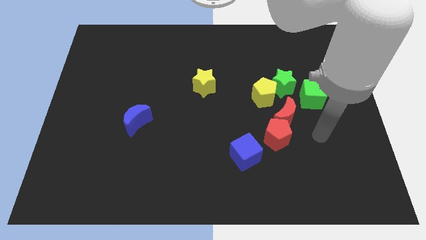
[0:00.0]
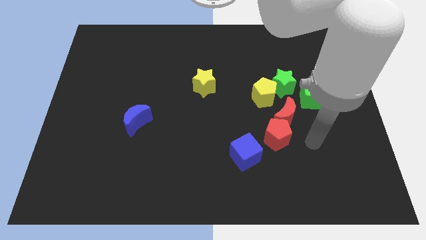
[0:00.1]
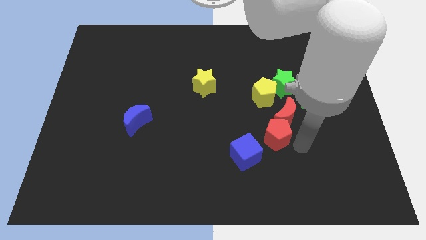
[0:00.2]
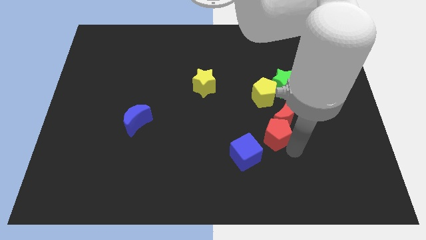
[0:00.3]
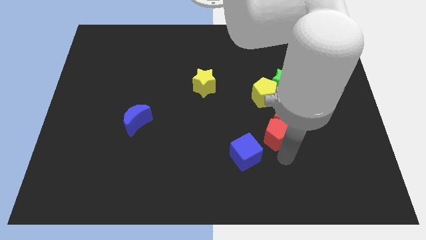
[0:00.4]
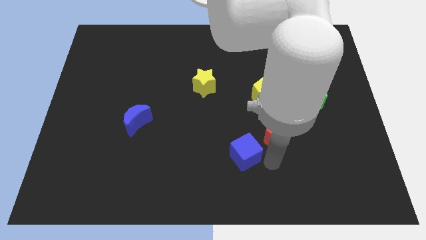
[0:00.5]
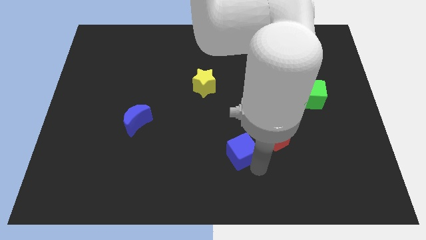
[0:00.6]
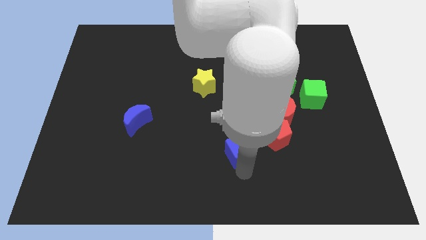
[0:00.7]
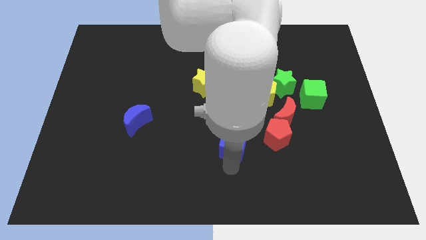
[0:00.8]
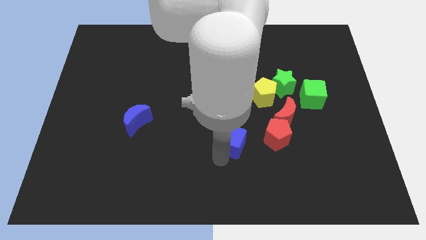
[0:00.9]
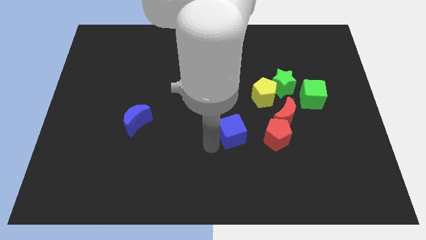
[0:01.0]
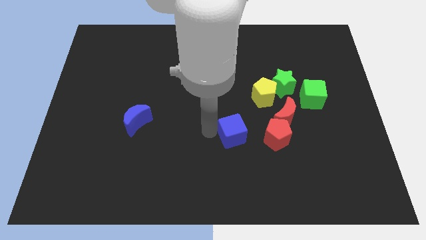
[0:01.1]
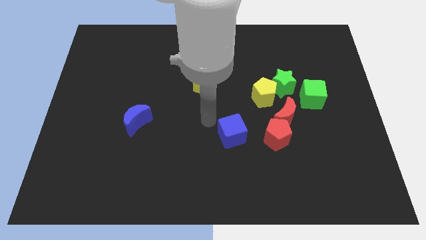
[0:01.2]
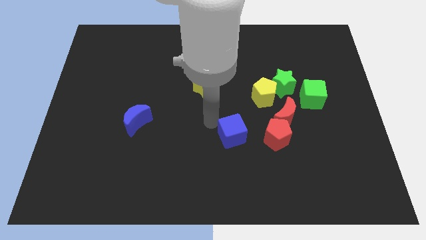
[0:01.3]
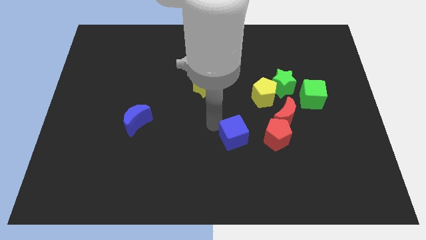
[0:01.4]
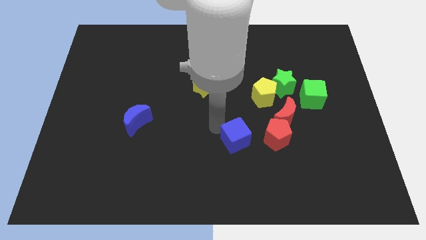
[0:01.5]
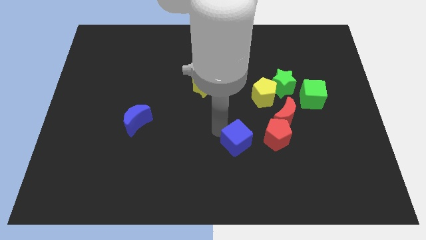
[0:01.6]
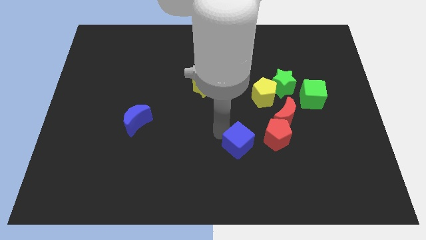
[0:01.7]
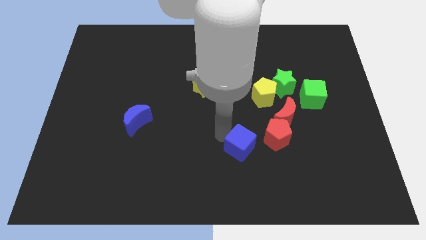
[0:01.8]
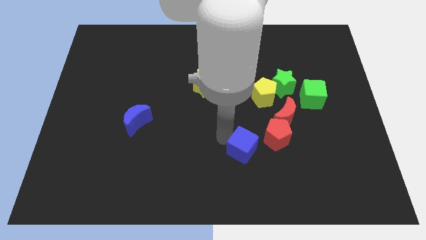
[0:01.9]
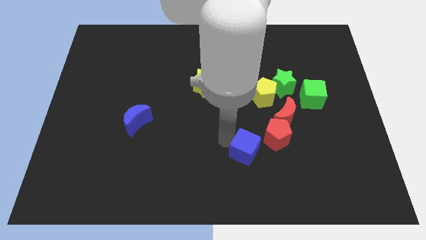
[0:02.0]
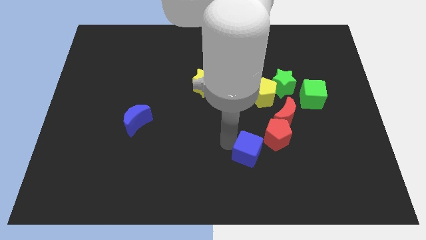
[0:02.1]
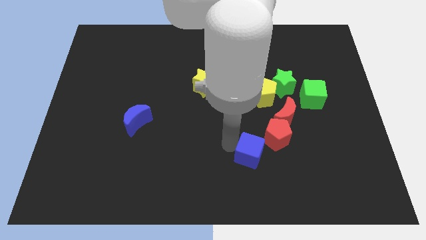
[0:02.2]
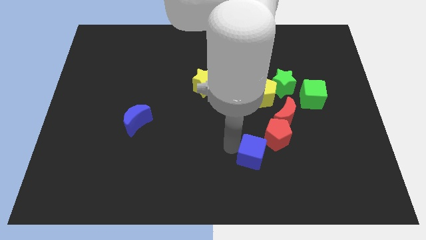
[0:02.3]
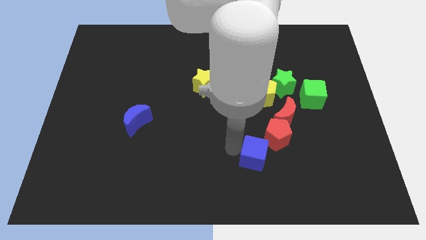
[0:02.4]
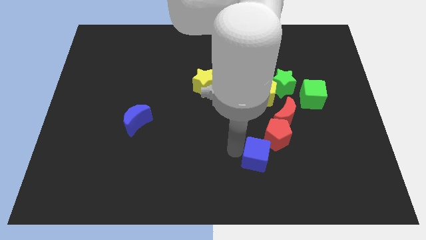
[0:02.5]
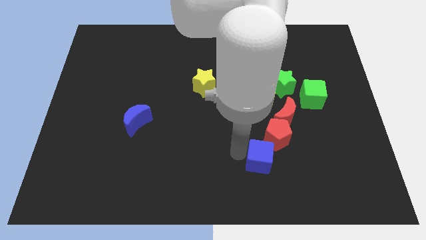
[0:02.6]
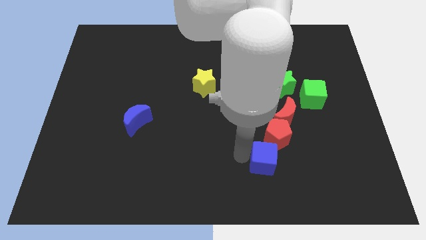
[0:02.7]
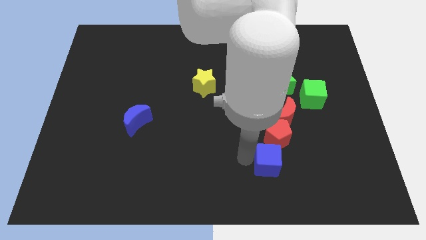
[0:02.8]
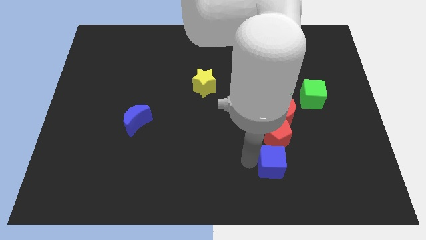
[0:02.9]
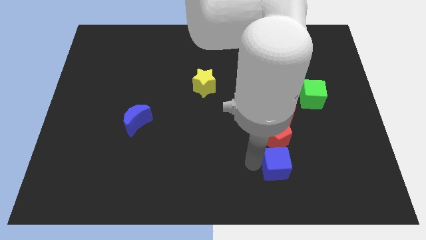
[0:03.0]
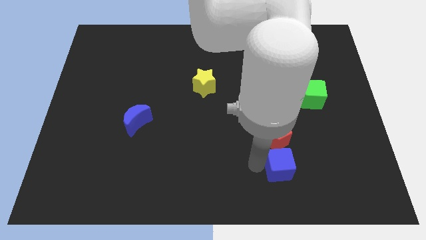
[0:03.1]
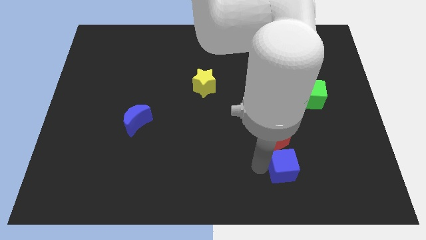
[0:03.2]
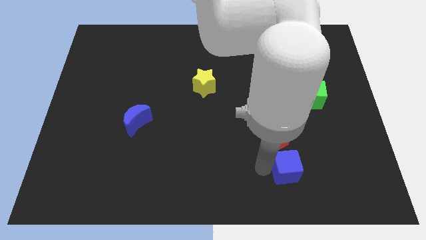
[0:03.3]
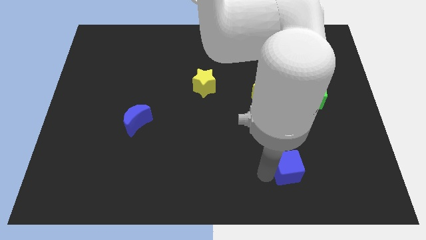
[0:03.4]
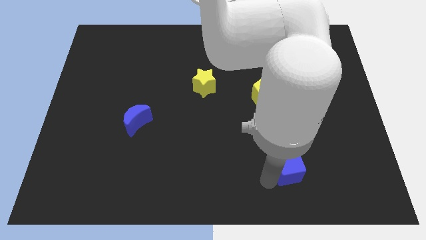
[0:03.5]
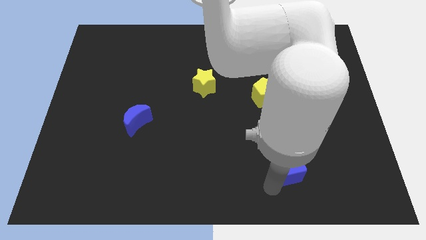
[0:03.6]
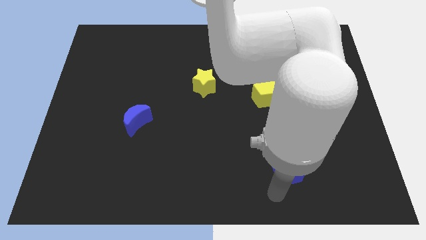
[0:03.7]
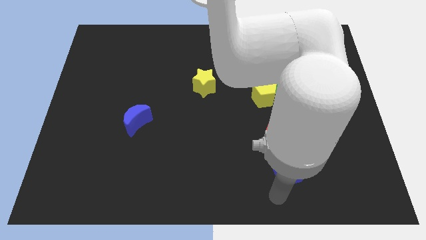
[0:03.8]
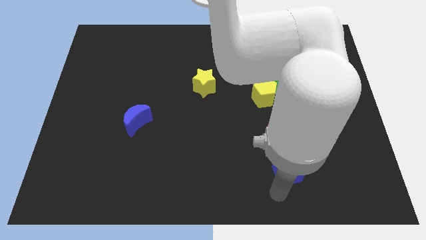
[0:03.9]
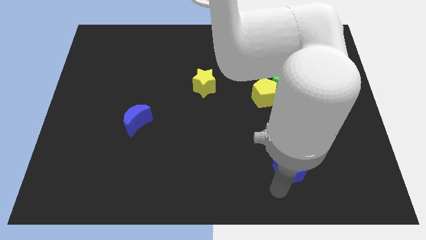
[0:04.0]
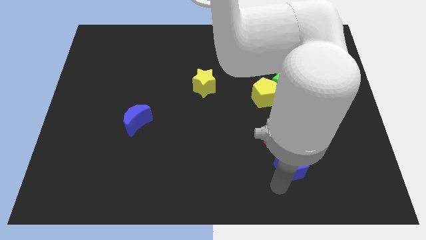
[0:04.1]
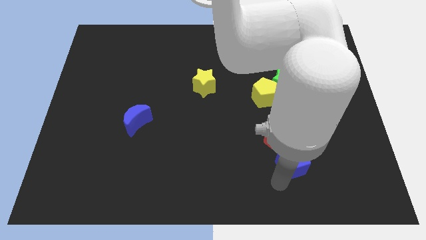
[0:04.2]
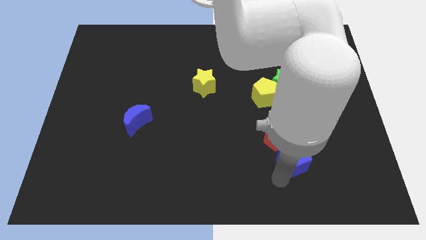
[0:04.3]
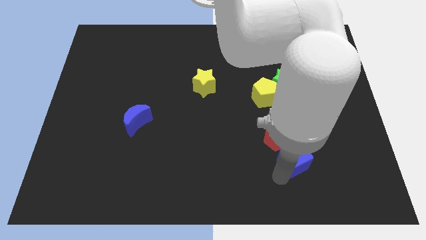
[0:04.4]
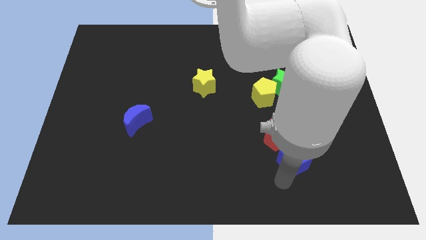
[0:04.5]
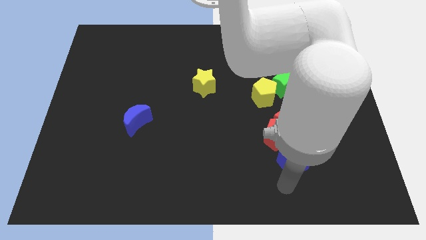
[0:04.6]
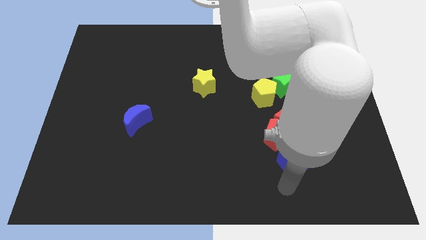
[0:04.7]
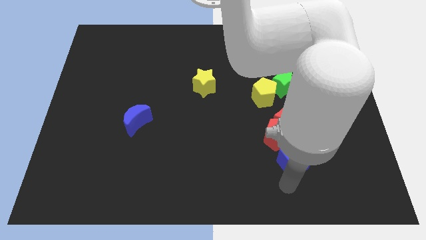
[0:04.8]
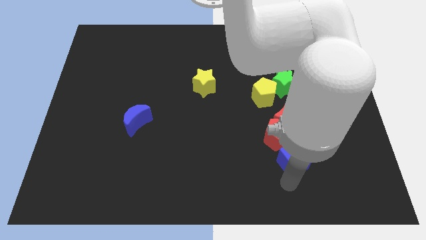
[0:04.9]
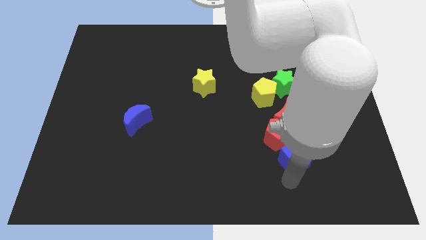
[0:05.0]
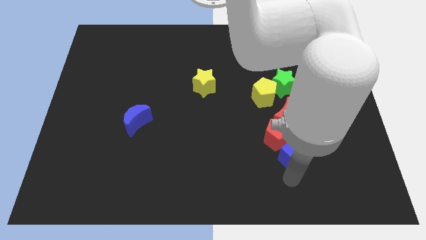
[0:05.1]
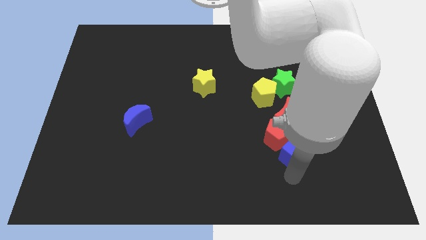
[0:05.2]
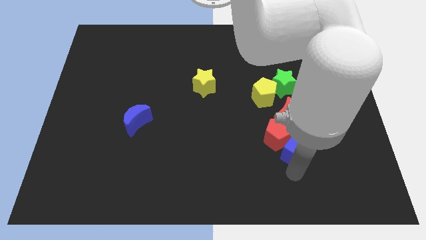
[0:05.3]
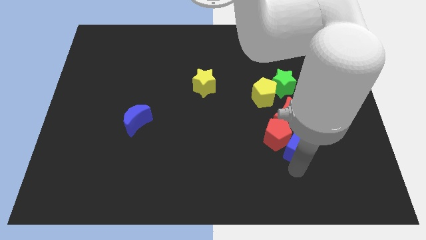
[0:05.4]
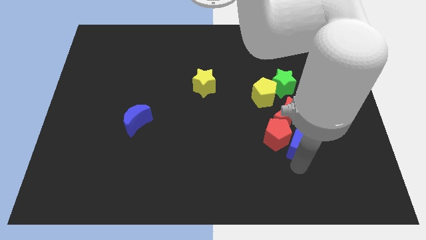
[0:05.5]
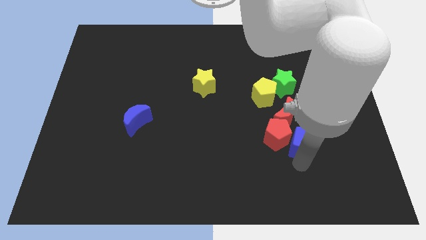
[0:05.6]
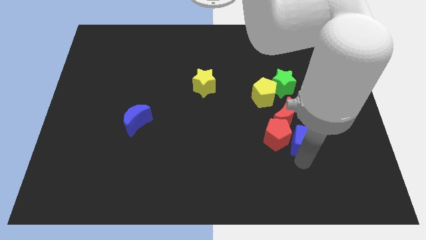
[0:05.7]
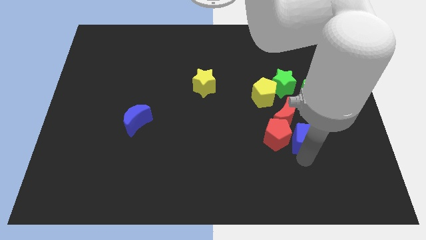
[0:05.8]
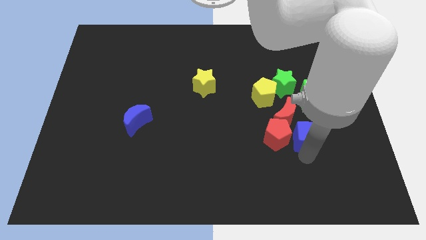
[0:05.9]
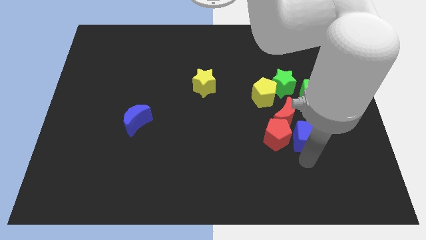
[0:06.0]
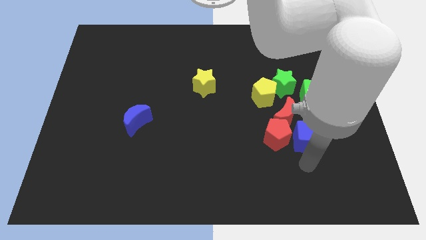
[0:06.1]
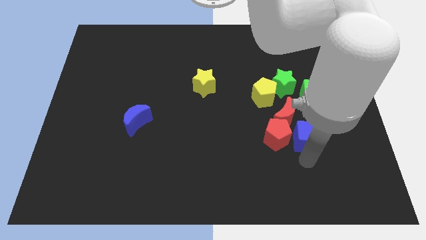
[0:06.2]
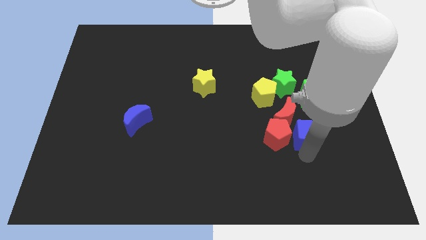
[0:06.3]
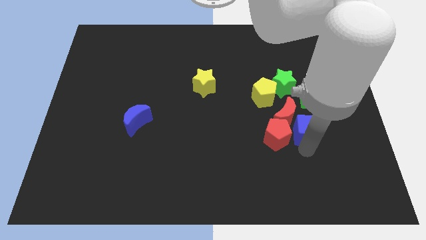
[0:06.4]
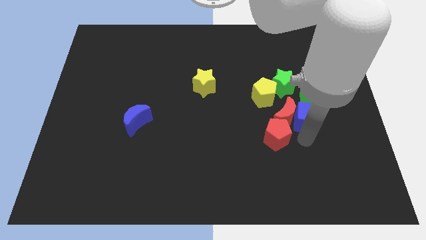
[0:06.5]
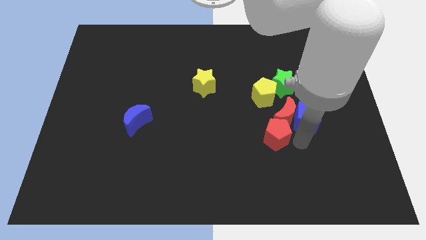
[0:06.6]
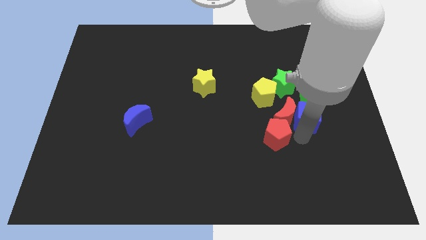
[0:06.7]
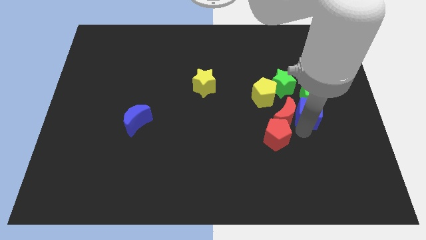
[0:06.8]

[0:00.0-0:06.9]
slide the blue cube next to the green cube

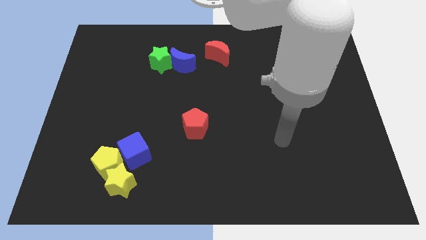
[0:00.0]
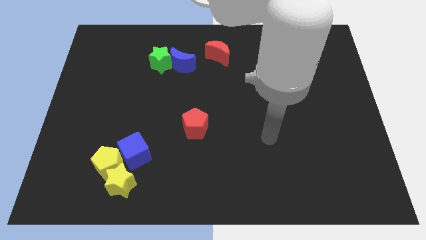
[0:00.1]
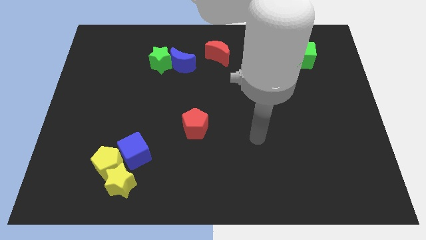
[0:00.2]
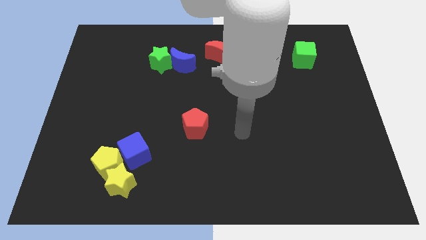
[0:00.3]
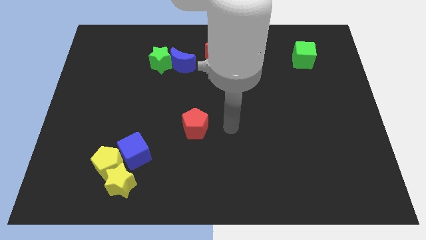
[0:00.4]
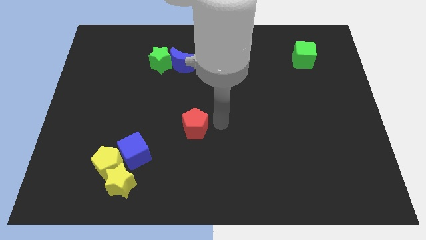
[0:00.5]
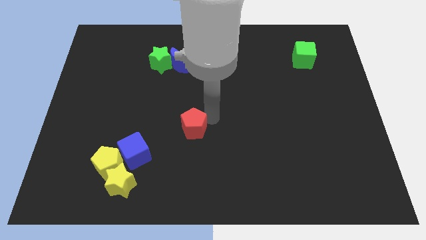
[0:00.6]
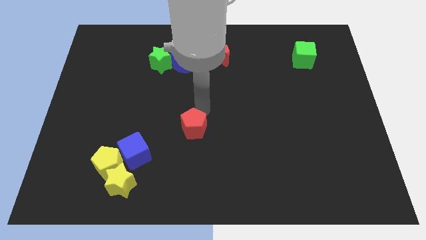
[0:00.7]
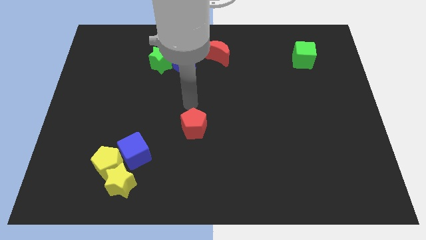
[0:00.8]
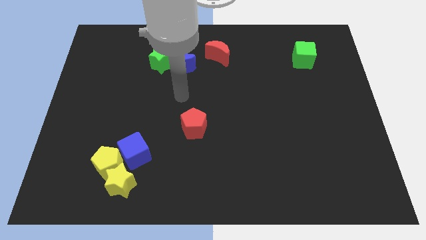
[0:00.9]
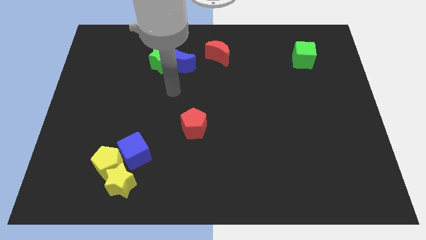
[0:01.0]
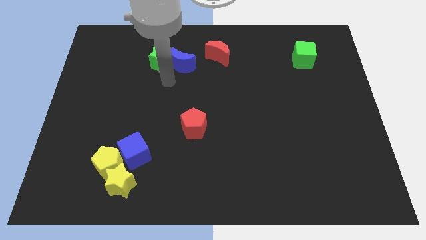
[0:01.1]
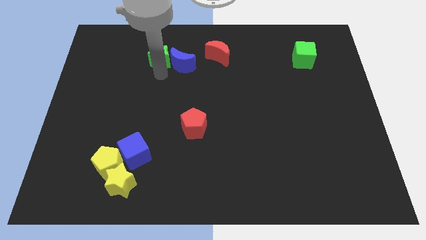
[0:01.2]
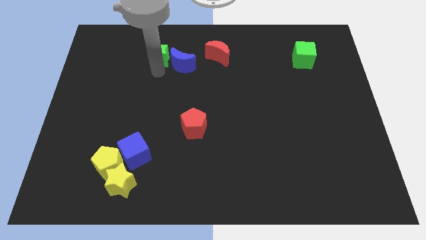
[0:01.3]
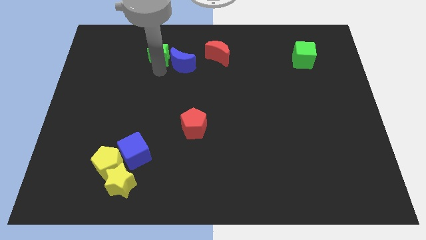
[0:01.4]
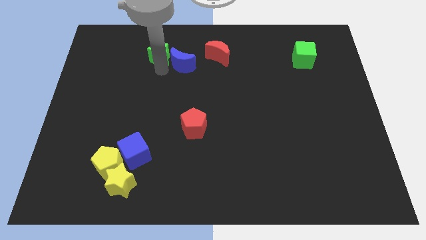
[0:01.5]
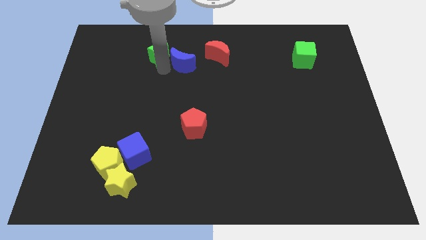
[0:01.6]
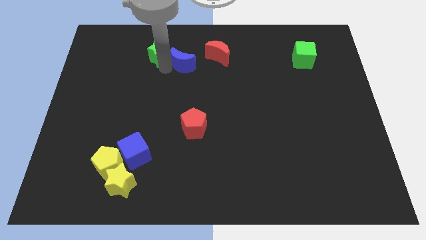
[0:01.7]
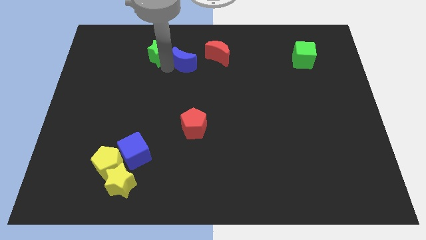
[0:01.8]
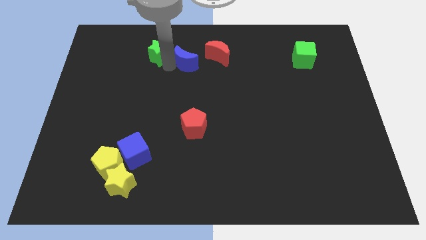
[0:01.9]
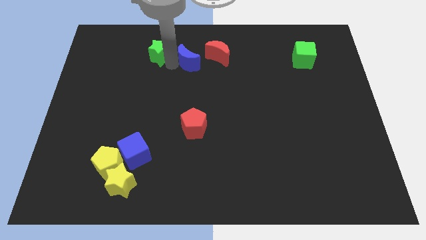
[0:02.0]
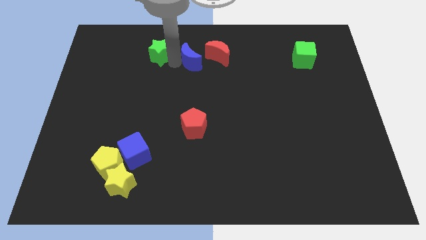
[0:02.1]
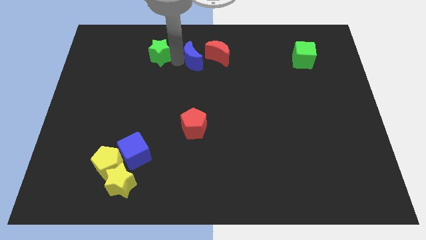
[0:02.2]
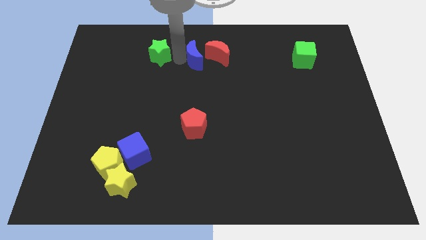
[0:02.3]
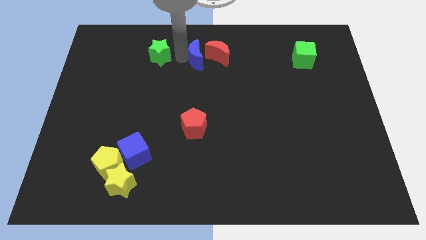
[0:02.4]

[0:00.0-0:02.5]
put the blue moon close to the red moon
